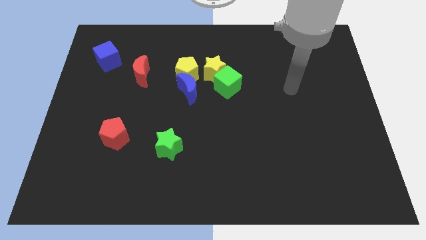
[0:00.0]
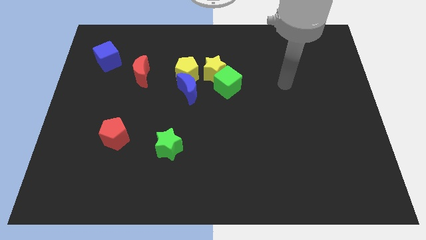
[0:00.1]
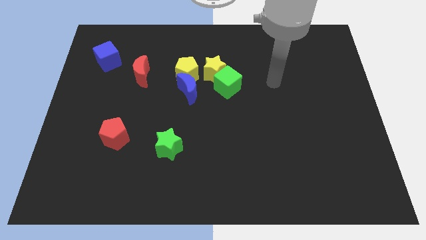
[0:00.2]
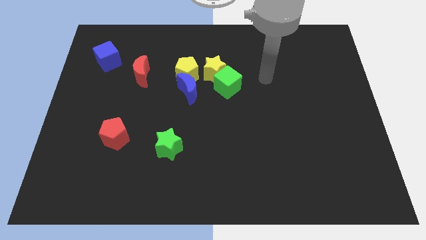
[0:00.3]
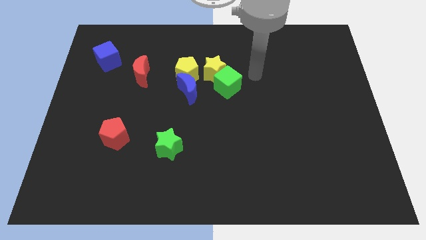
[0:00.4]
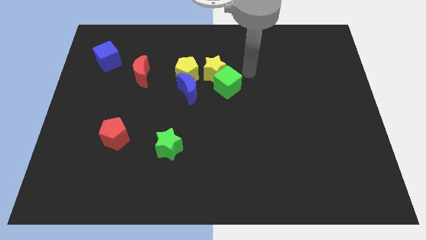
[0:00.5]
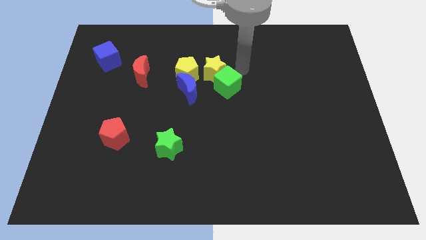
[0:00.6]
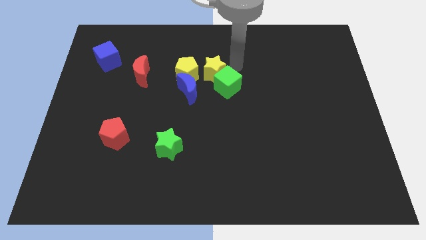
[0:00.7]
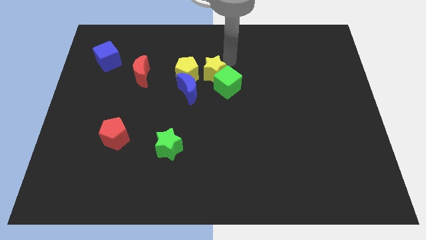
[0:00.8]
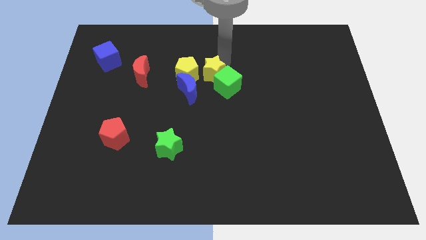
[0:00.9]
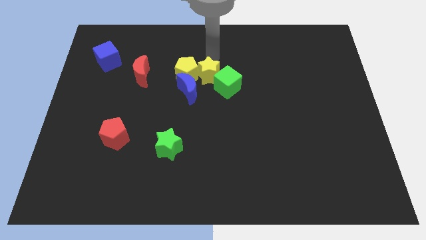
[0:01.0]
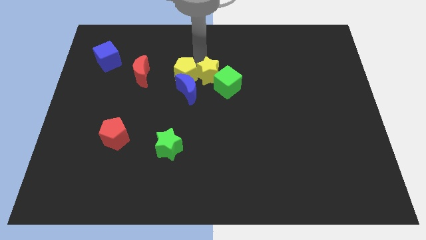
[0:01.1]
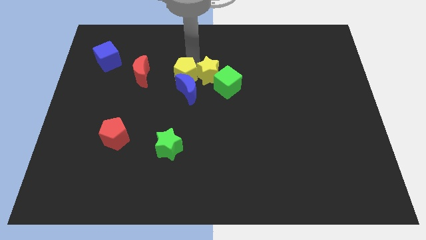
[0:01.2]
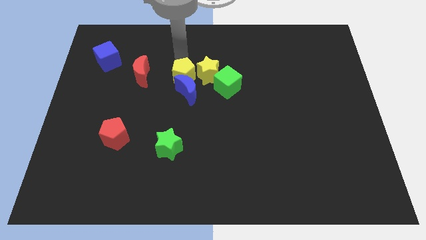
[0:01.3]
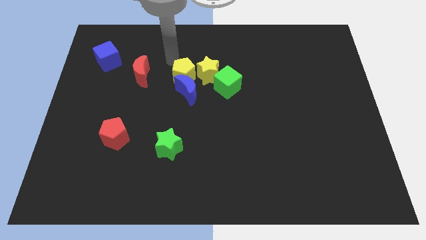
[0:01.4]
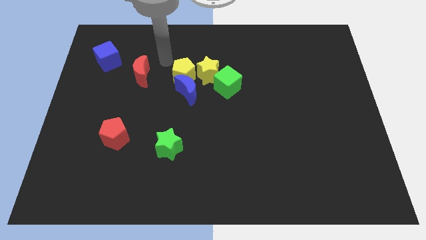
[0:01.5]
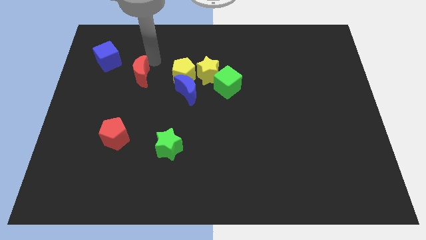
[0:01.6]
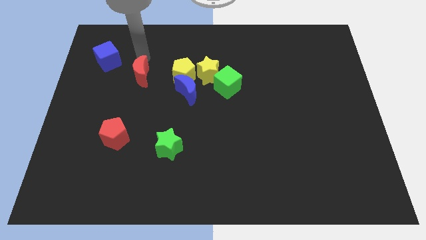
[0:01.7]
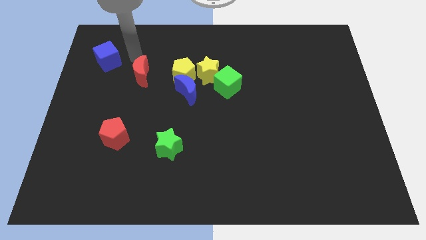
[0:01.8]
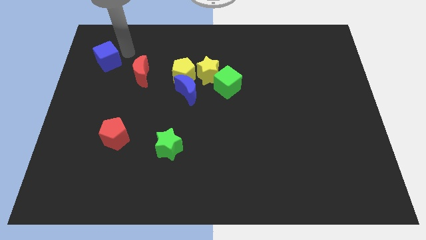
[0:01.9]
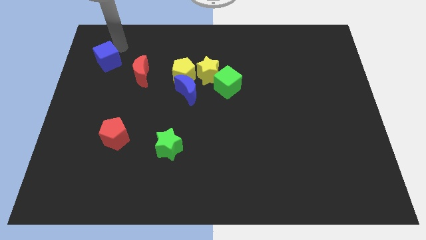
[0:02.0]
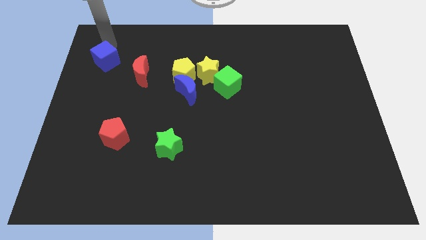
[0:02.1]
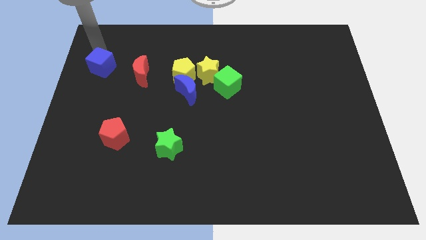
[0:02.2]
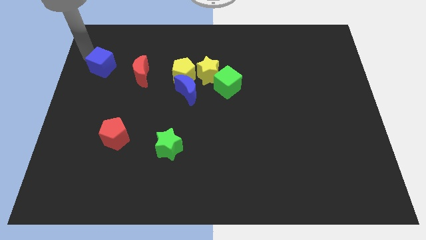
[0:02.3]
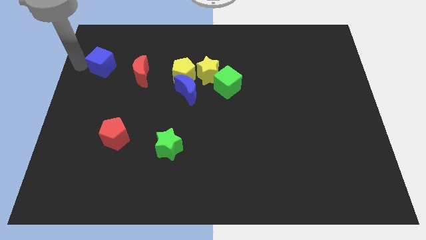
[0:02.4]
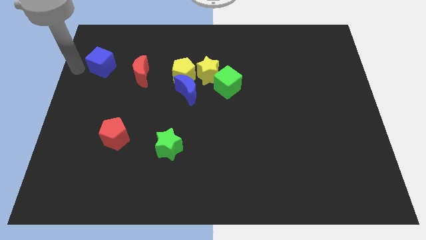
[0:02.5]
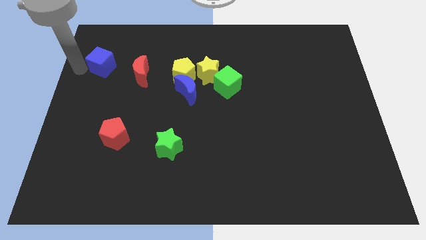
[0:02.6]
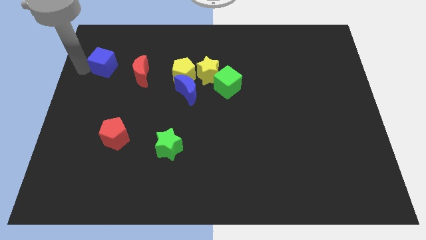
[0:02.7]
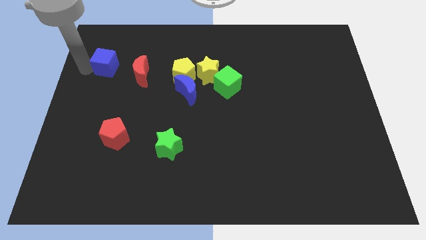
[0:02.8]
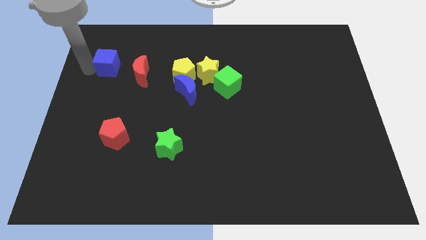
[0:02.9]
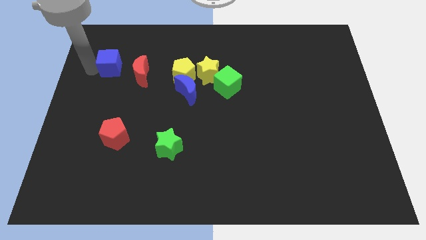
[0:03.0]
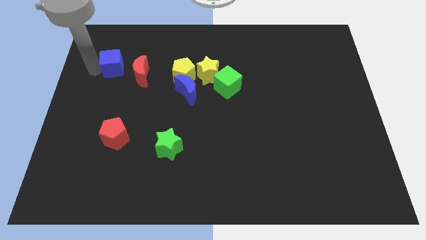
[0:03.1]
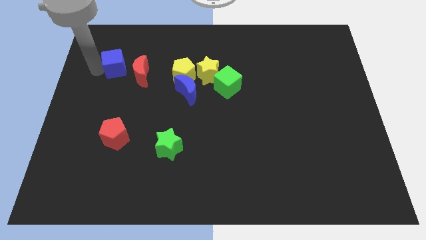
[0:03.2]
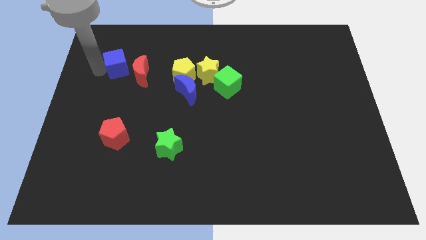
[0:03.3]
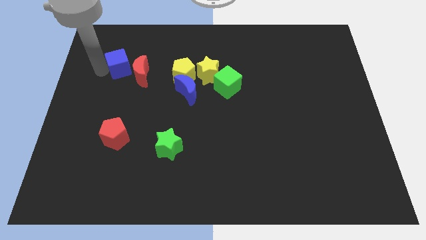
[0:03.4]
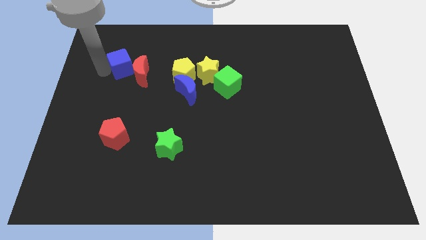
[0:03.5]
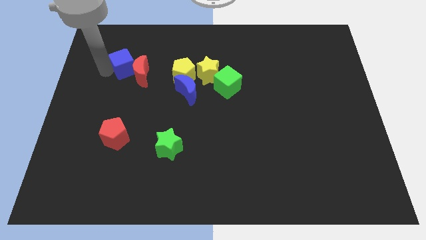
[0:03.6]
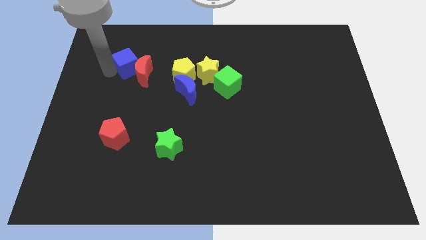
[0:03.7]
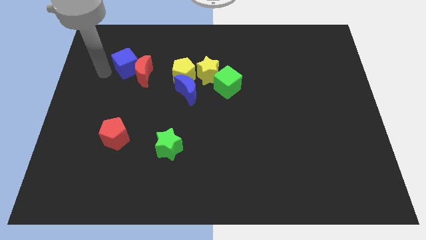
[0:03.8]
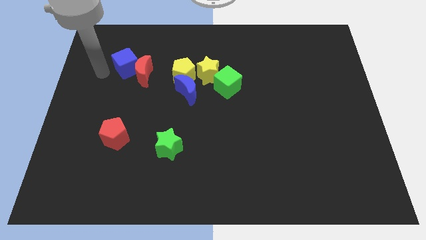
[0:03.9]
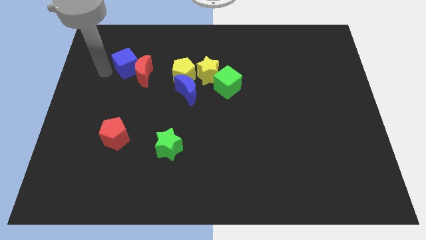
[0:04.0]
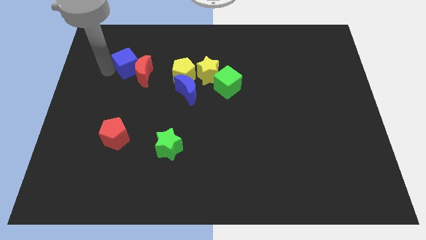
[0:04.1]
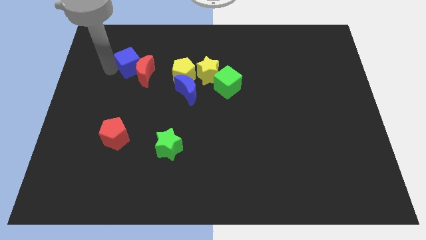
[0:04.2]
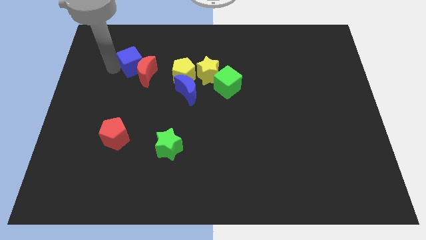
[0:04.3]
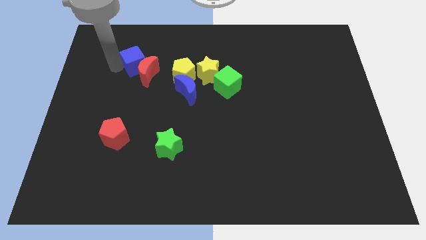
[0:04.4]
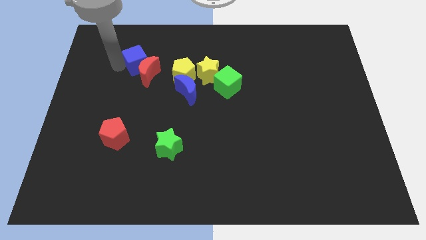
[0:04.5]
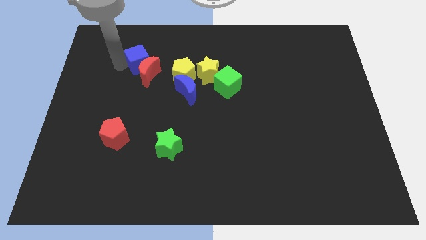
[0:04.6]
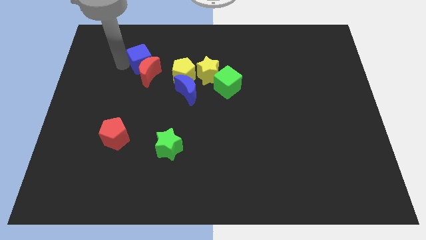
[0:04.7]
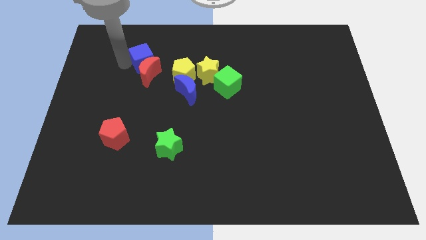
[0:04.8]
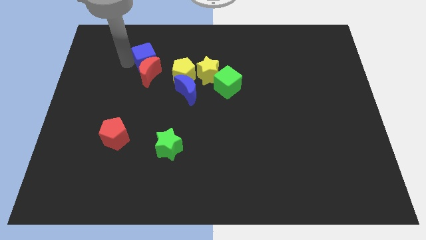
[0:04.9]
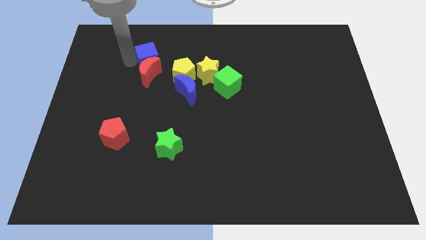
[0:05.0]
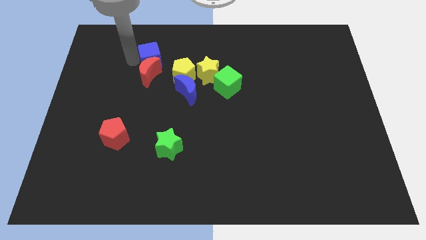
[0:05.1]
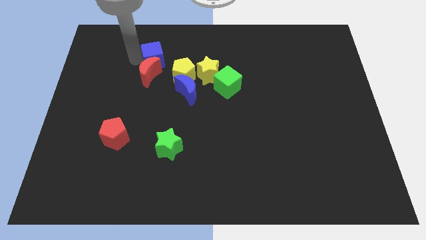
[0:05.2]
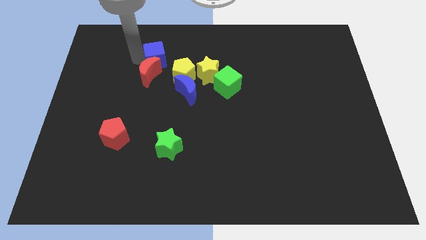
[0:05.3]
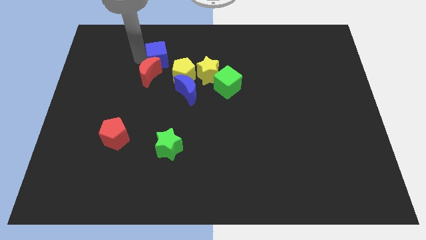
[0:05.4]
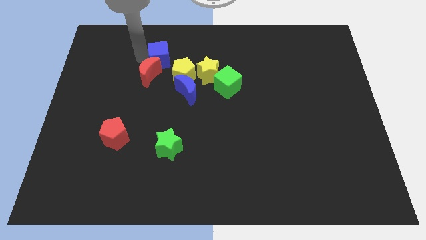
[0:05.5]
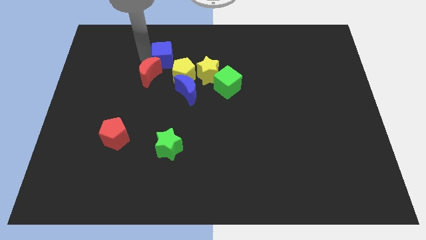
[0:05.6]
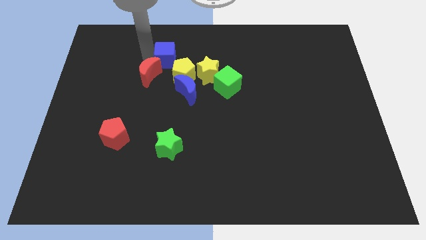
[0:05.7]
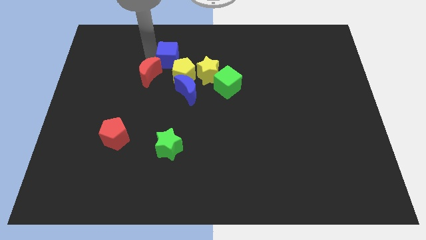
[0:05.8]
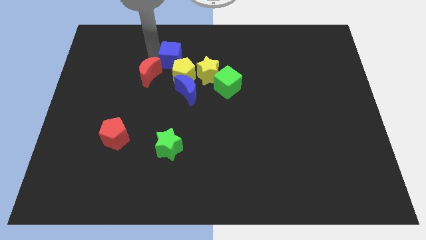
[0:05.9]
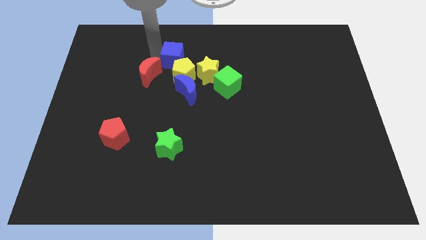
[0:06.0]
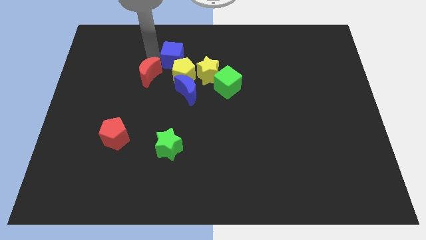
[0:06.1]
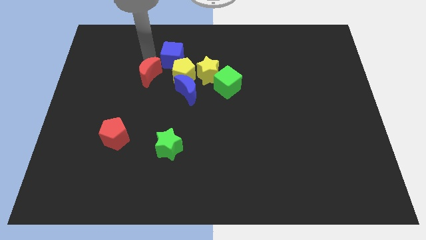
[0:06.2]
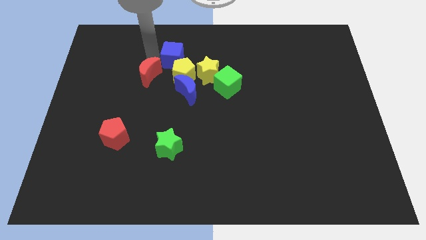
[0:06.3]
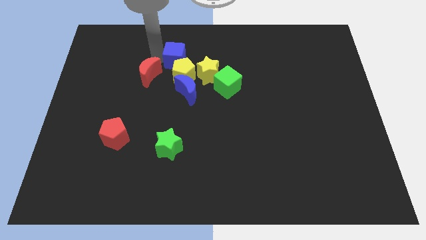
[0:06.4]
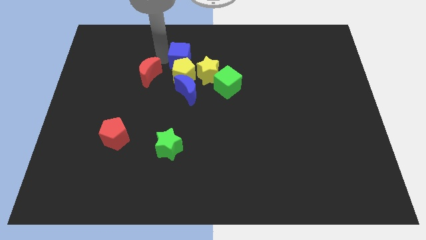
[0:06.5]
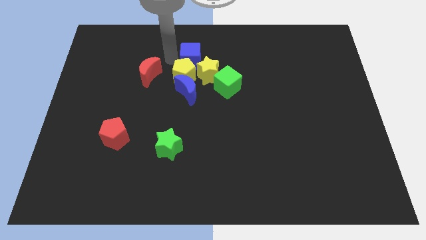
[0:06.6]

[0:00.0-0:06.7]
move the blue cube to the right
